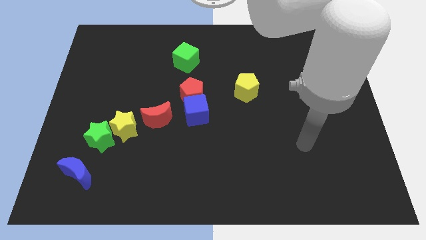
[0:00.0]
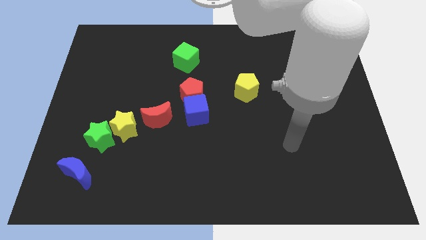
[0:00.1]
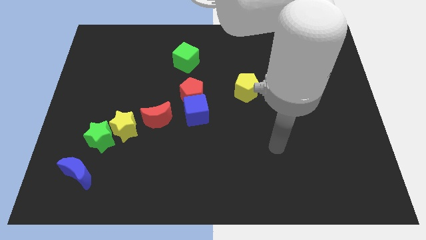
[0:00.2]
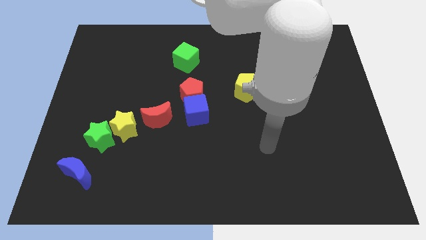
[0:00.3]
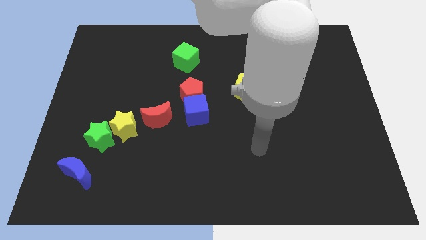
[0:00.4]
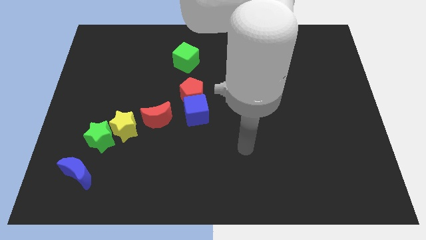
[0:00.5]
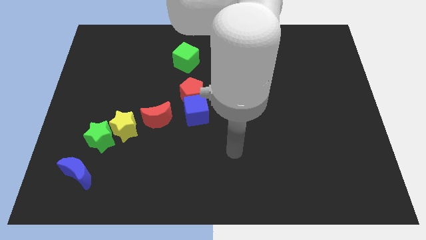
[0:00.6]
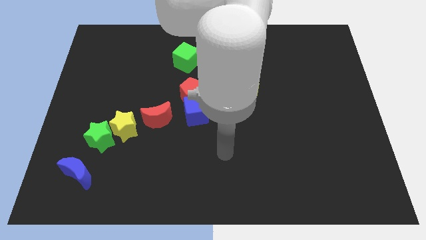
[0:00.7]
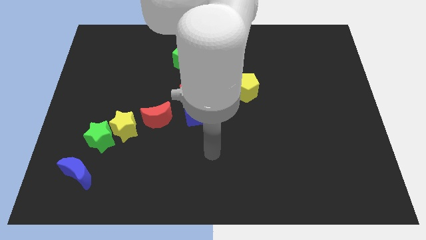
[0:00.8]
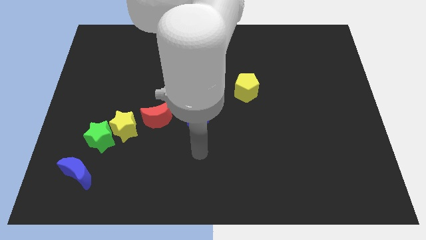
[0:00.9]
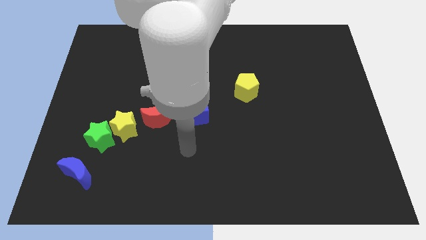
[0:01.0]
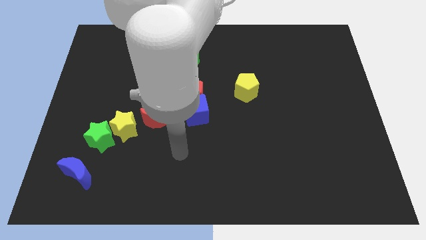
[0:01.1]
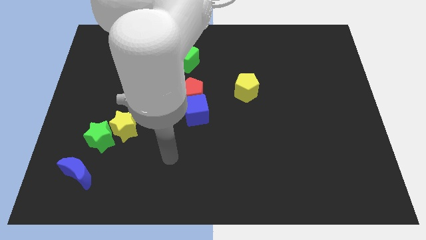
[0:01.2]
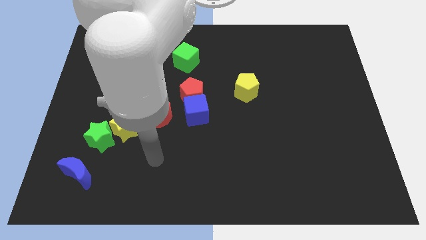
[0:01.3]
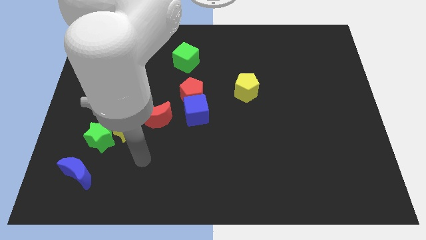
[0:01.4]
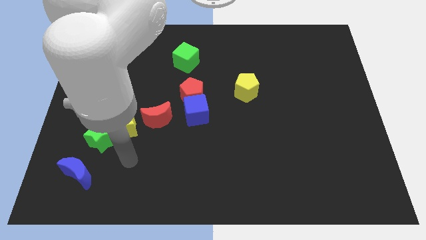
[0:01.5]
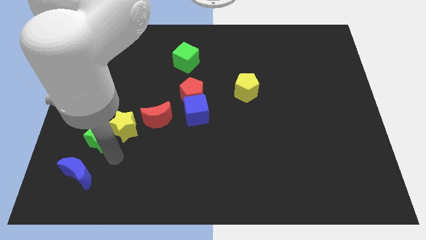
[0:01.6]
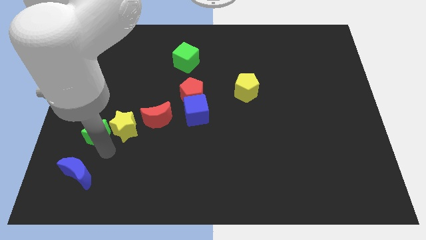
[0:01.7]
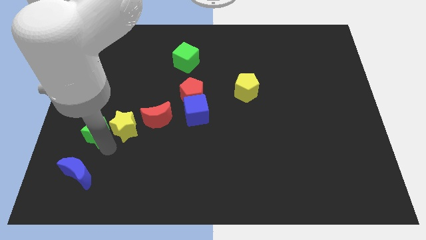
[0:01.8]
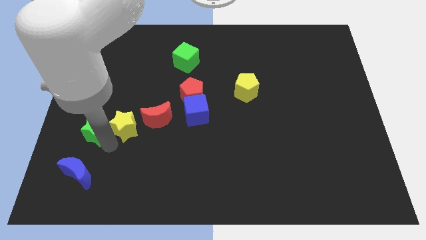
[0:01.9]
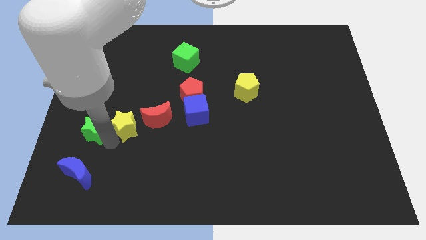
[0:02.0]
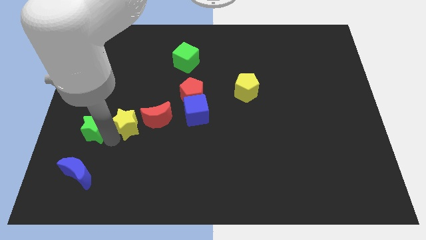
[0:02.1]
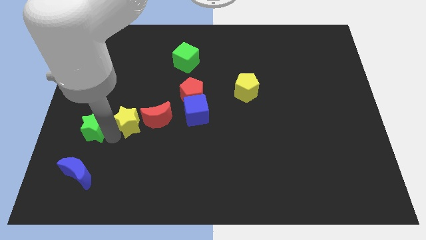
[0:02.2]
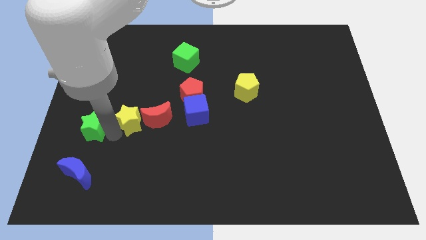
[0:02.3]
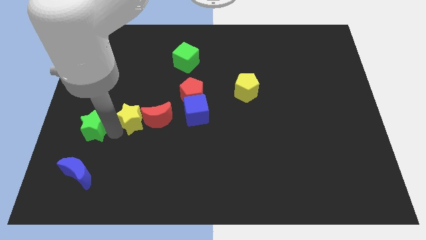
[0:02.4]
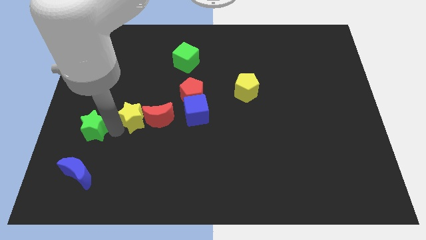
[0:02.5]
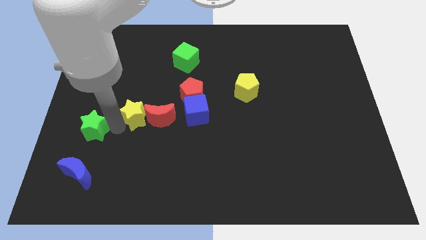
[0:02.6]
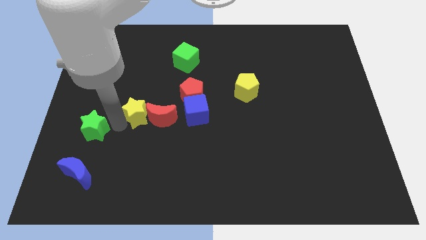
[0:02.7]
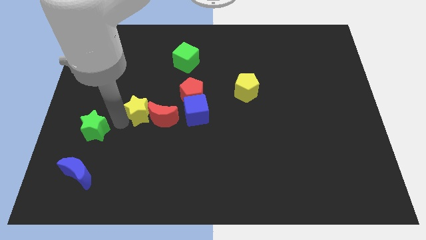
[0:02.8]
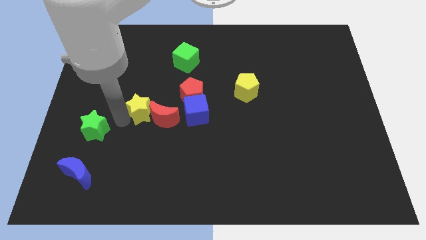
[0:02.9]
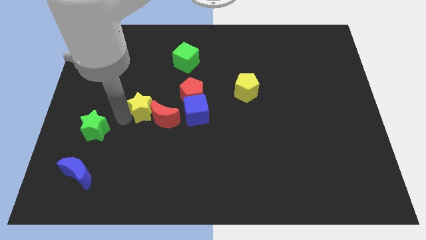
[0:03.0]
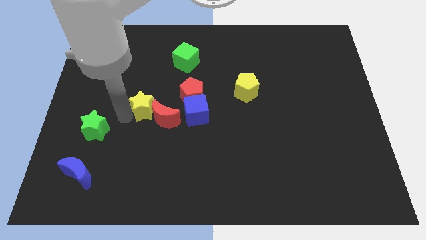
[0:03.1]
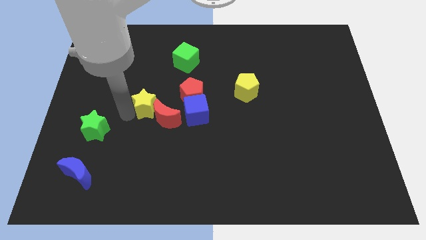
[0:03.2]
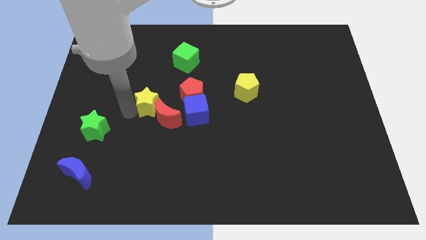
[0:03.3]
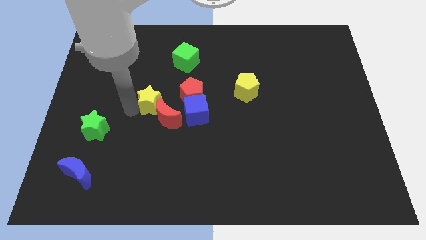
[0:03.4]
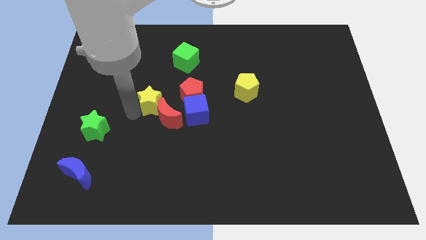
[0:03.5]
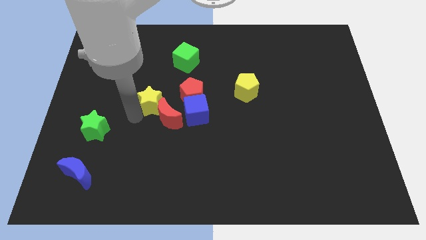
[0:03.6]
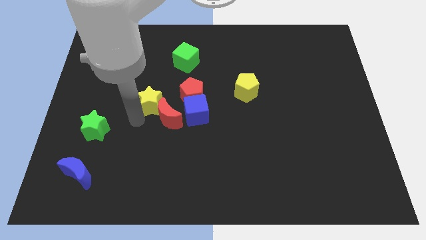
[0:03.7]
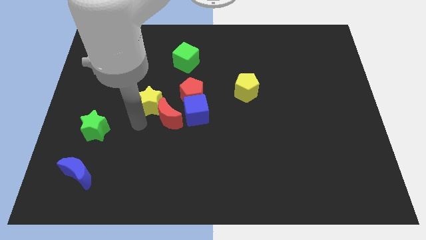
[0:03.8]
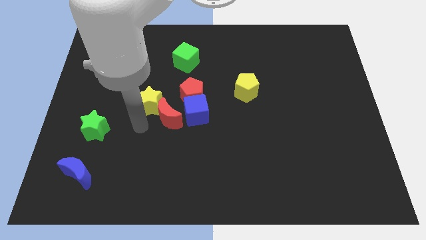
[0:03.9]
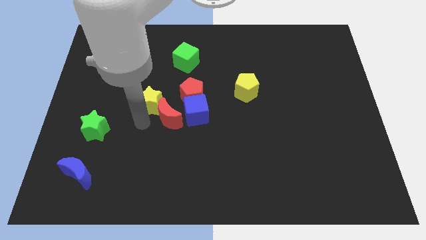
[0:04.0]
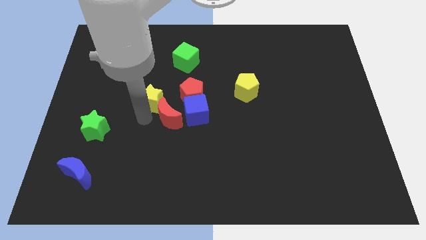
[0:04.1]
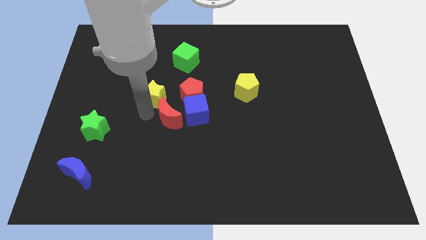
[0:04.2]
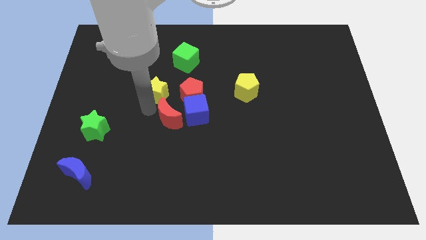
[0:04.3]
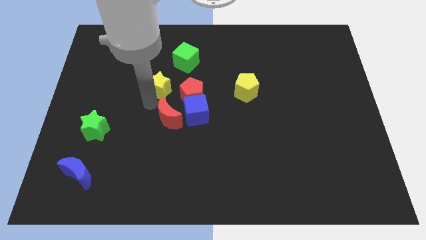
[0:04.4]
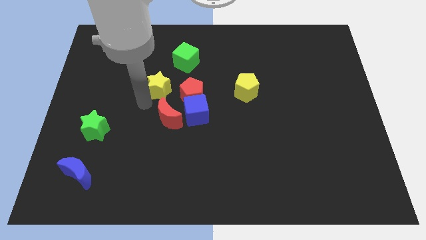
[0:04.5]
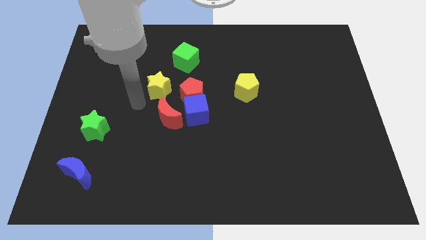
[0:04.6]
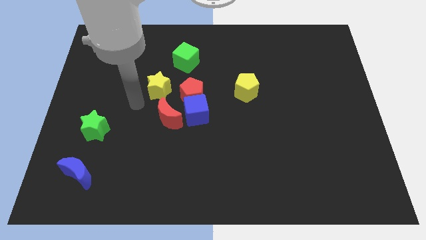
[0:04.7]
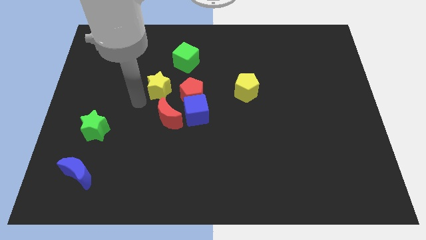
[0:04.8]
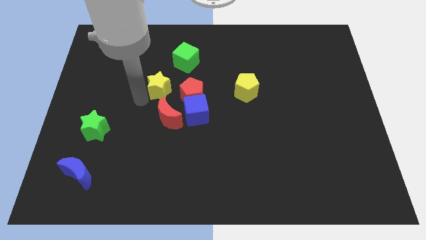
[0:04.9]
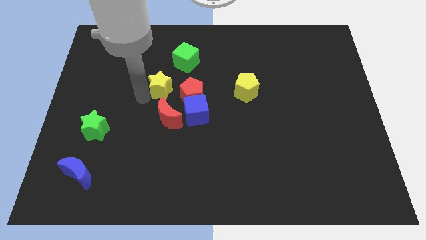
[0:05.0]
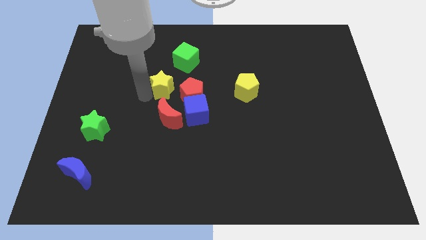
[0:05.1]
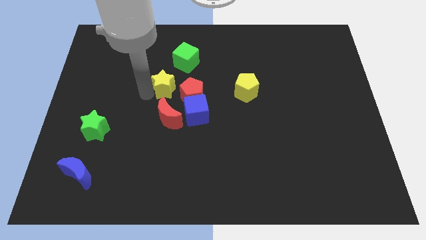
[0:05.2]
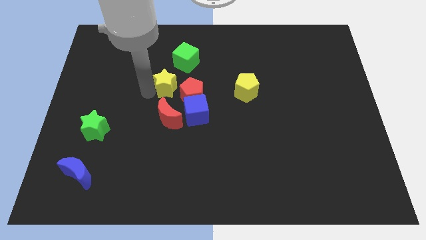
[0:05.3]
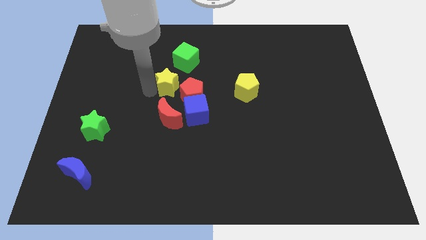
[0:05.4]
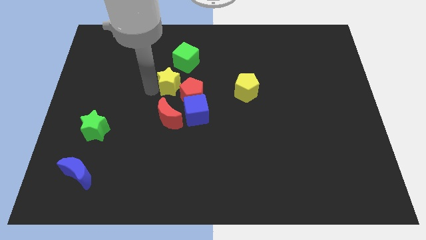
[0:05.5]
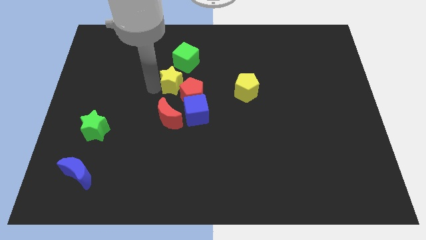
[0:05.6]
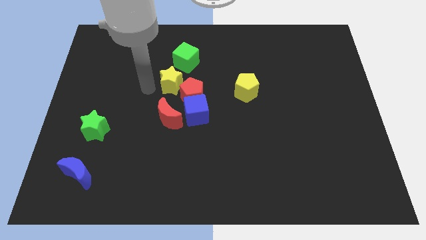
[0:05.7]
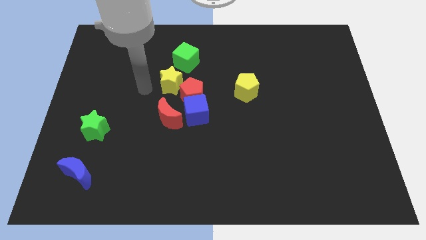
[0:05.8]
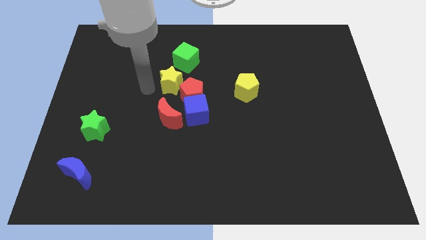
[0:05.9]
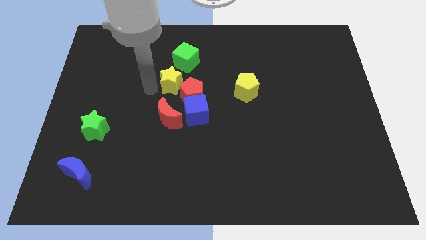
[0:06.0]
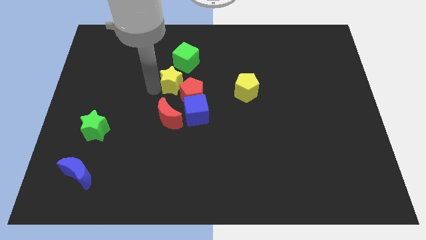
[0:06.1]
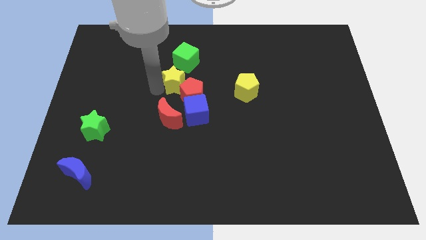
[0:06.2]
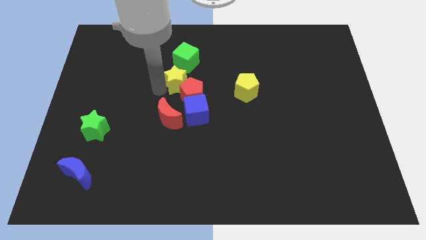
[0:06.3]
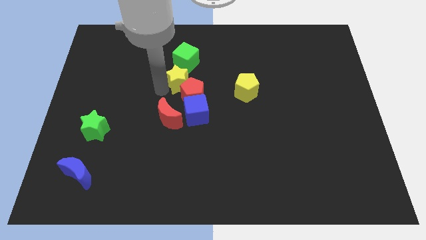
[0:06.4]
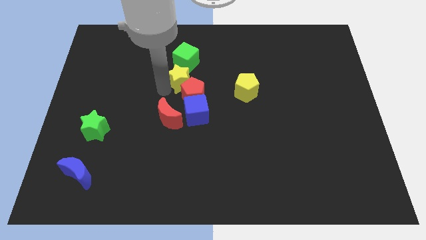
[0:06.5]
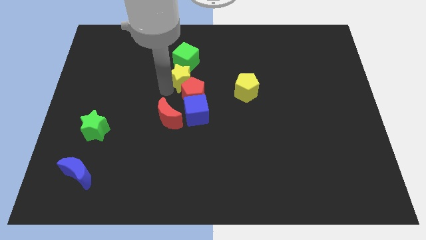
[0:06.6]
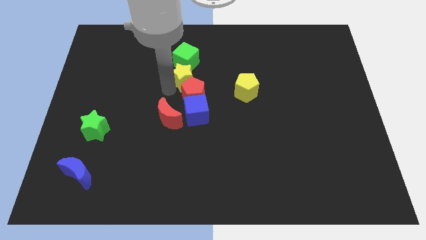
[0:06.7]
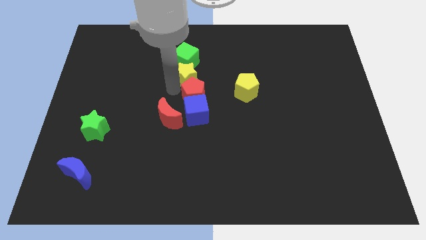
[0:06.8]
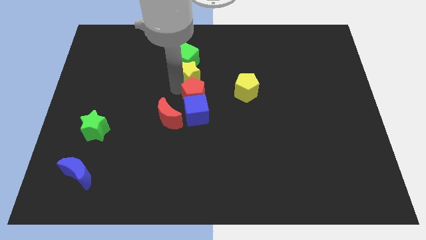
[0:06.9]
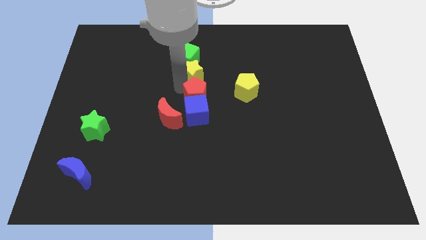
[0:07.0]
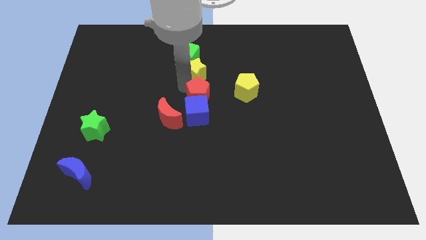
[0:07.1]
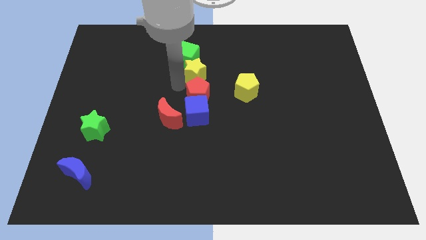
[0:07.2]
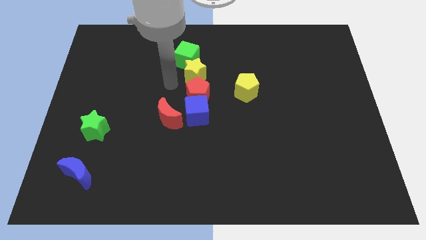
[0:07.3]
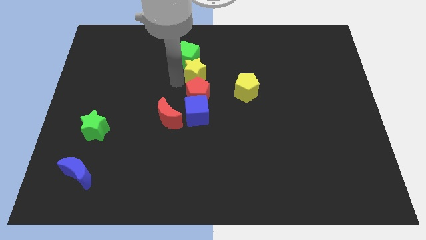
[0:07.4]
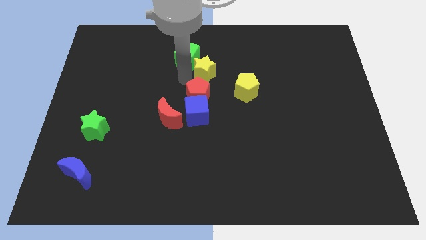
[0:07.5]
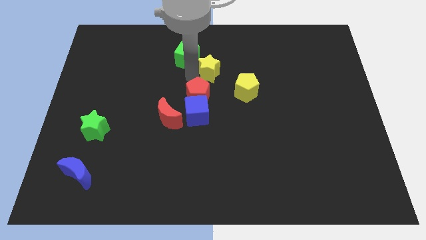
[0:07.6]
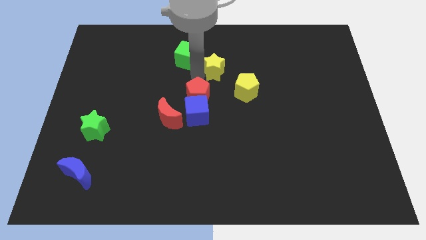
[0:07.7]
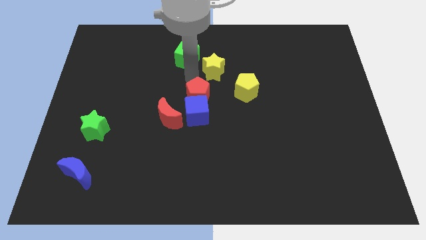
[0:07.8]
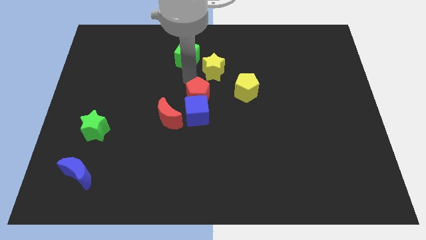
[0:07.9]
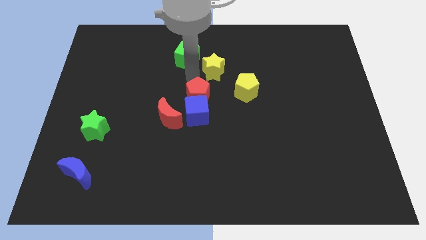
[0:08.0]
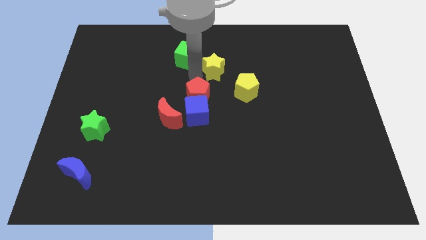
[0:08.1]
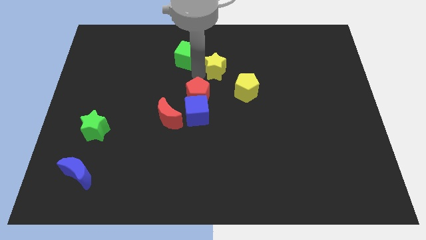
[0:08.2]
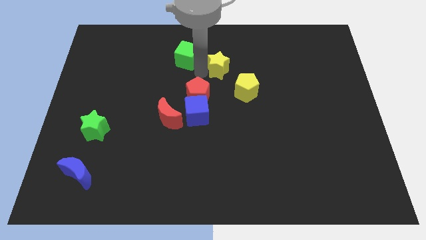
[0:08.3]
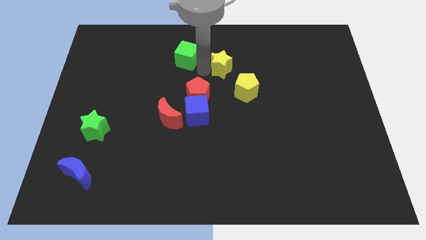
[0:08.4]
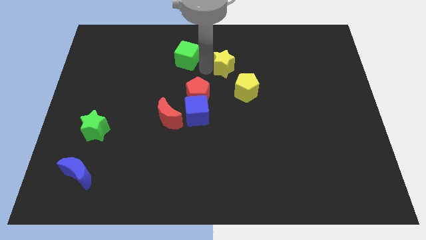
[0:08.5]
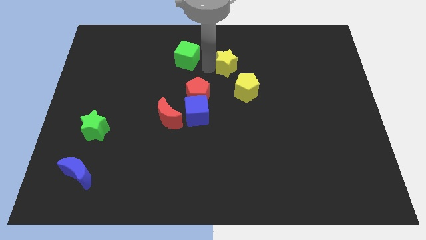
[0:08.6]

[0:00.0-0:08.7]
slide the yellow star above the yellow pentagon
